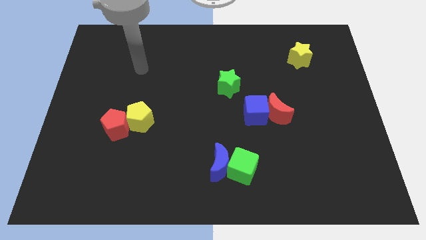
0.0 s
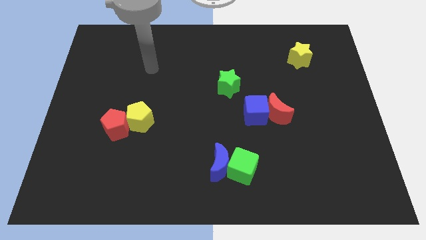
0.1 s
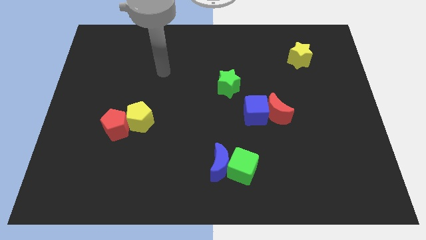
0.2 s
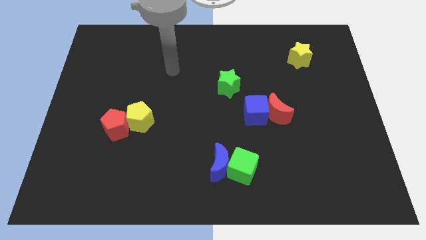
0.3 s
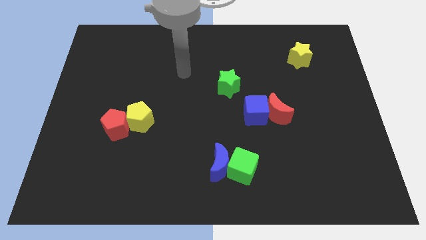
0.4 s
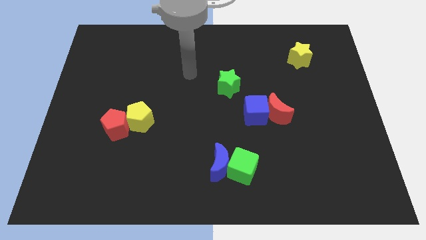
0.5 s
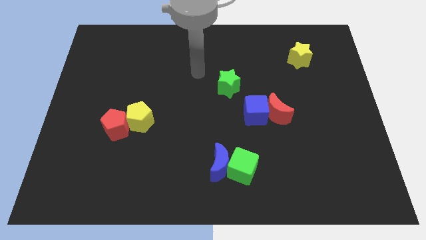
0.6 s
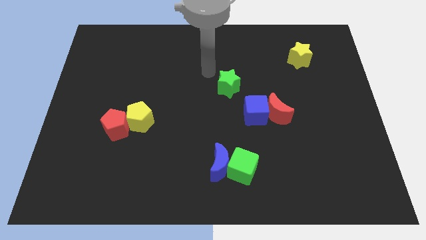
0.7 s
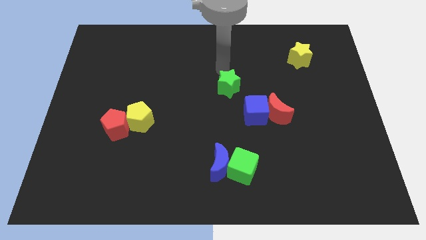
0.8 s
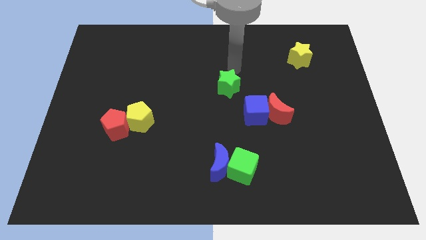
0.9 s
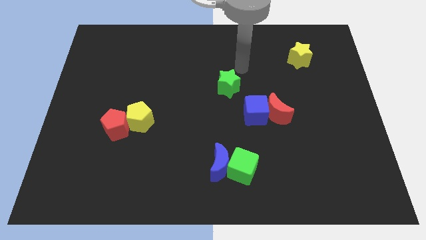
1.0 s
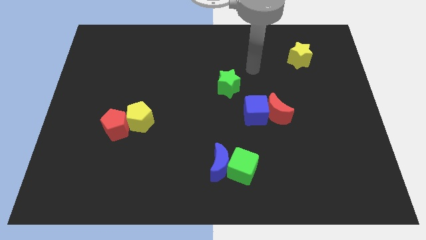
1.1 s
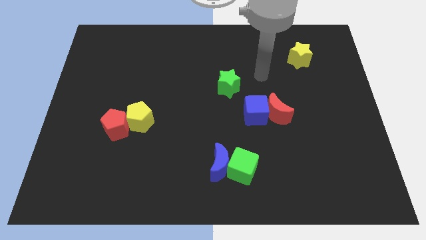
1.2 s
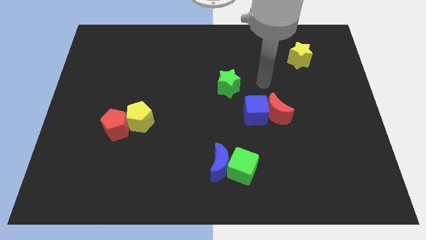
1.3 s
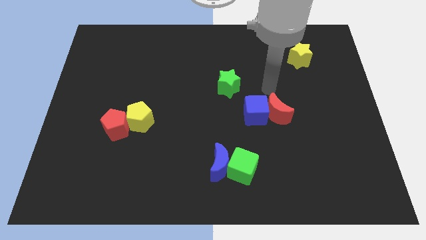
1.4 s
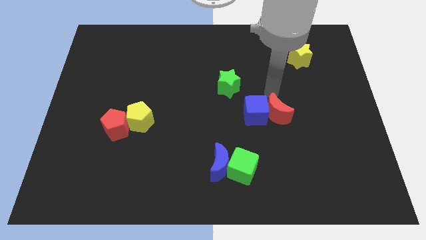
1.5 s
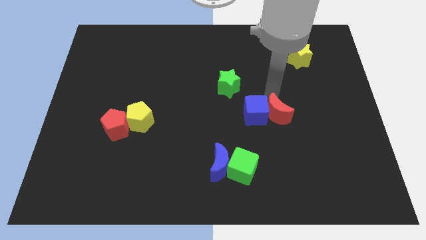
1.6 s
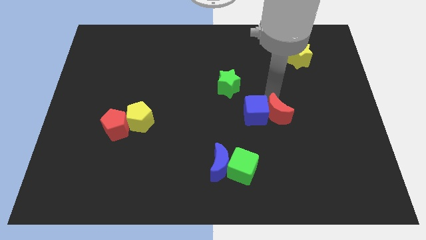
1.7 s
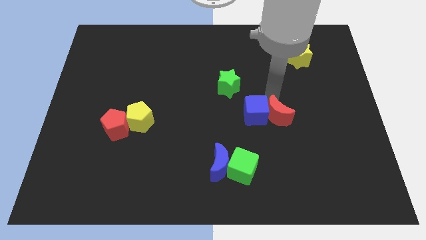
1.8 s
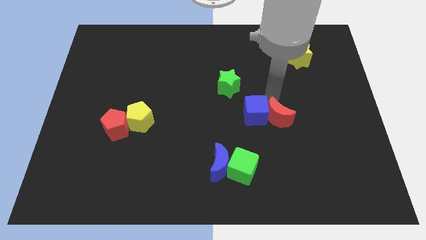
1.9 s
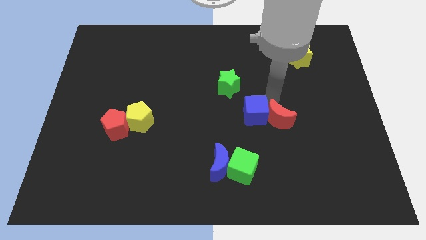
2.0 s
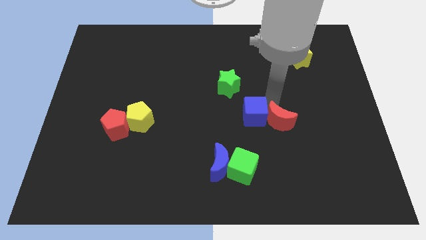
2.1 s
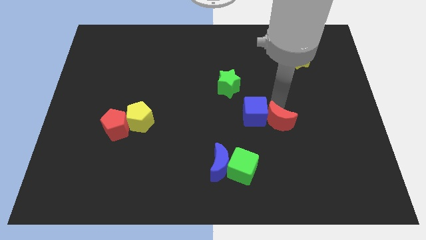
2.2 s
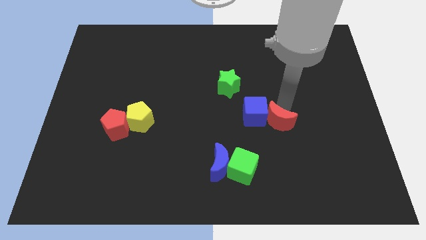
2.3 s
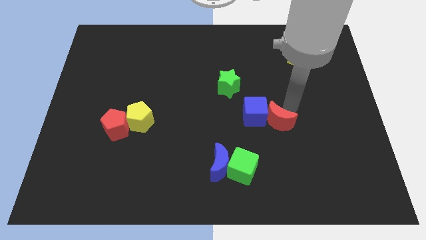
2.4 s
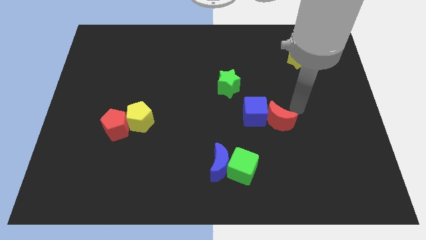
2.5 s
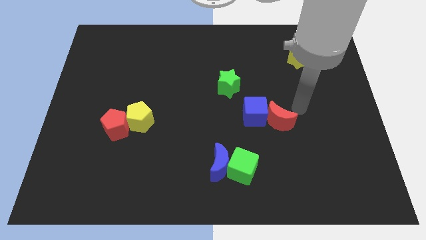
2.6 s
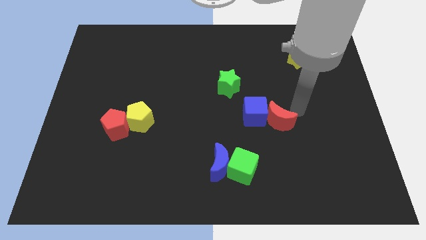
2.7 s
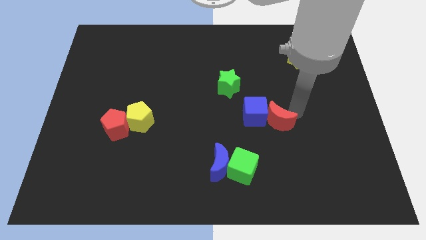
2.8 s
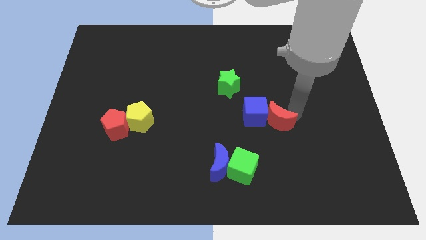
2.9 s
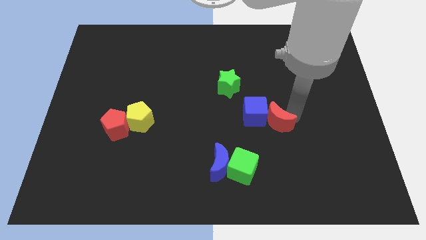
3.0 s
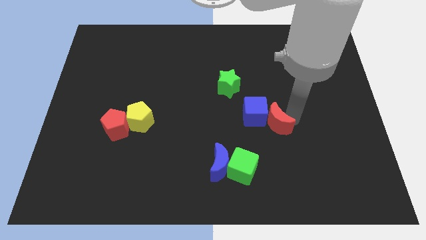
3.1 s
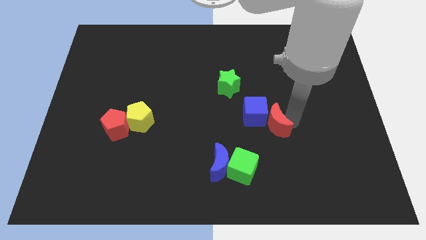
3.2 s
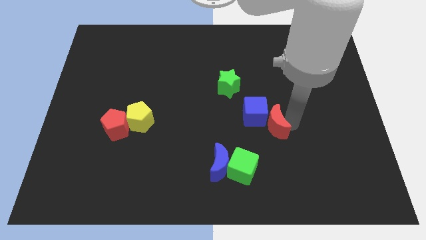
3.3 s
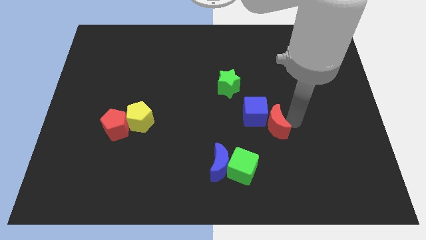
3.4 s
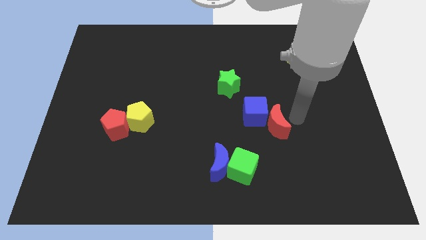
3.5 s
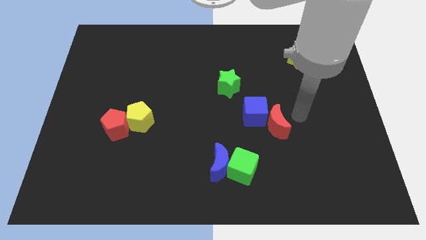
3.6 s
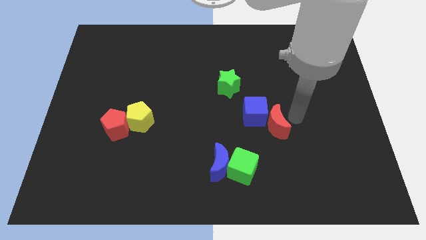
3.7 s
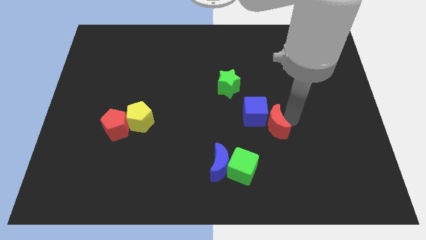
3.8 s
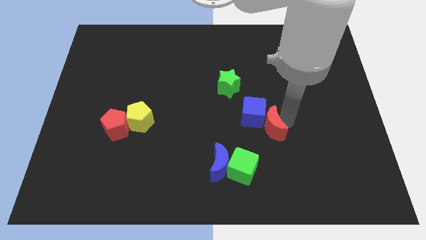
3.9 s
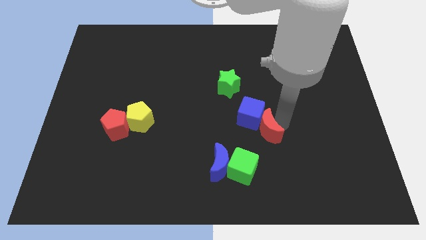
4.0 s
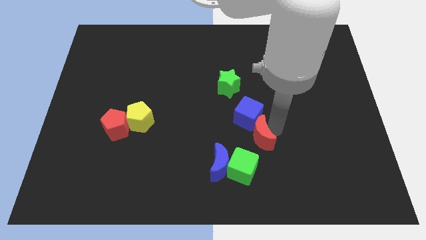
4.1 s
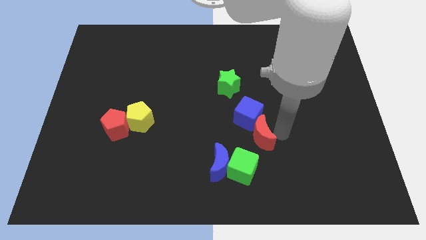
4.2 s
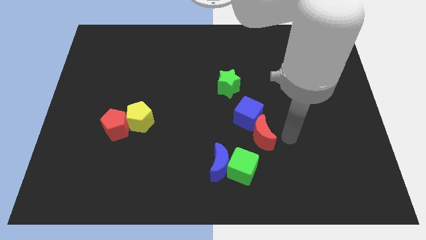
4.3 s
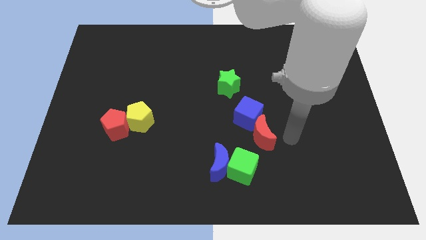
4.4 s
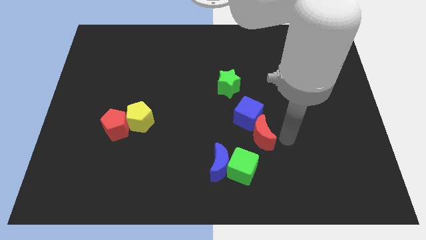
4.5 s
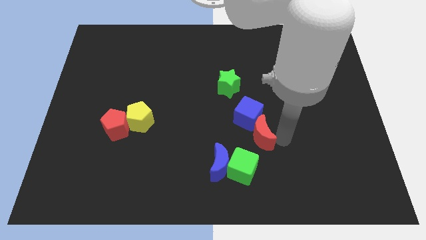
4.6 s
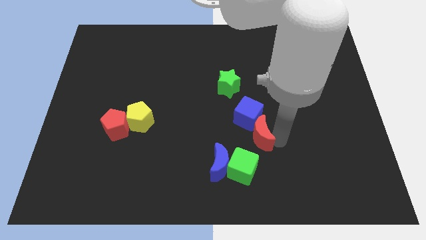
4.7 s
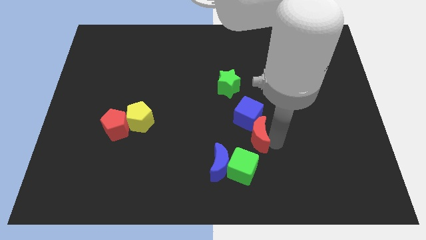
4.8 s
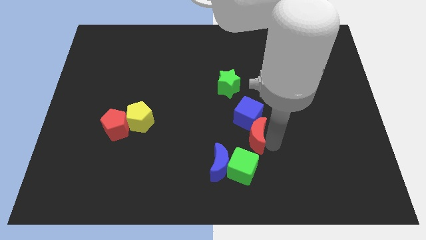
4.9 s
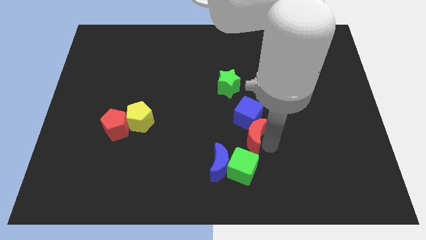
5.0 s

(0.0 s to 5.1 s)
push the red moon diagonally down and to the left of the blue cube

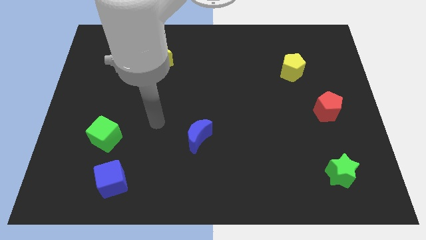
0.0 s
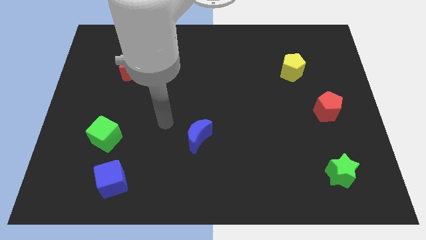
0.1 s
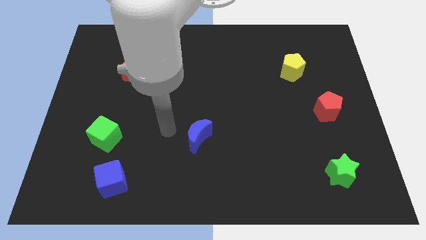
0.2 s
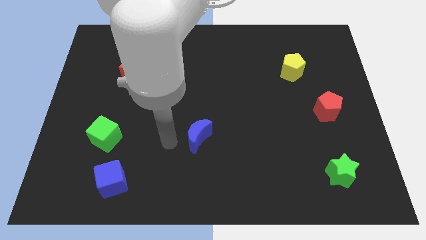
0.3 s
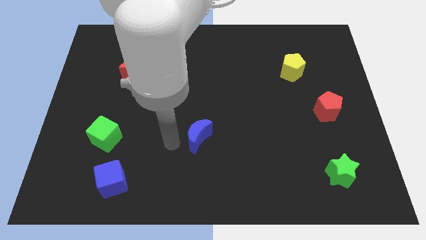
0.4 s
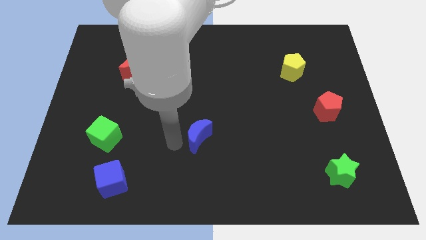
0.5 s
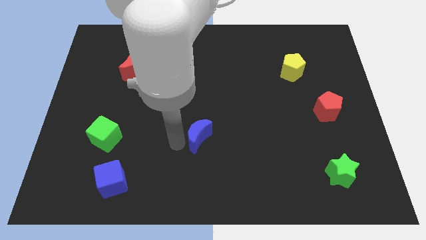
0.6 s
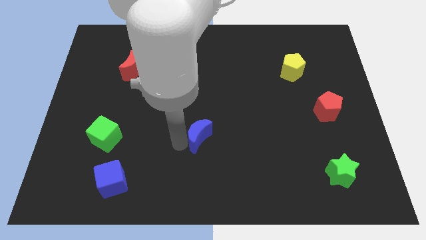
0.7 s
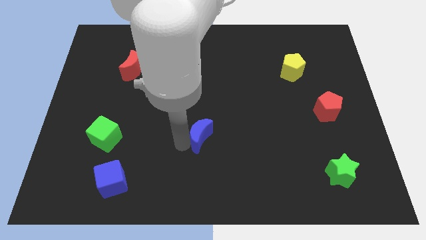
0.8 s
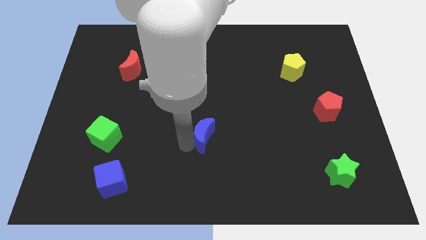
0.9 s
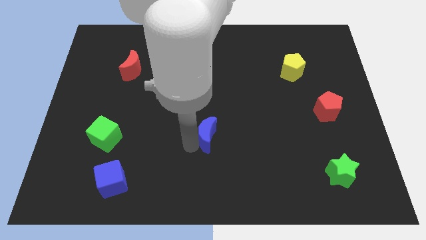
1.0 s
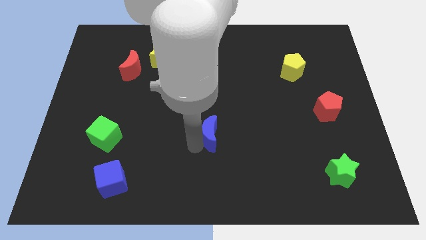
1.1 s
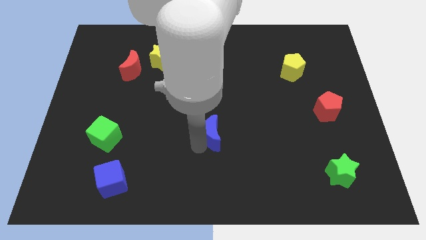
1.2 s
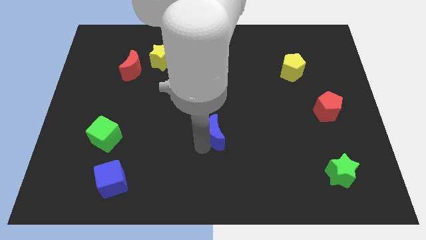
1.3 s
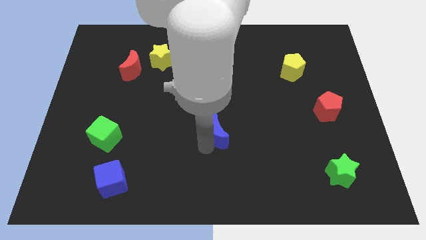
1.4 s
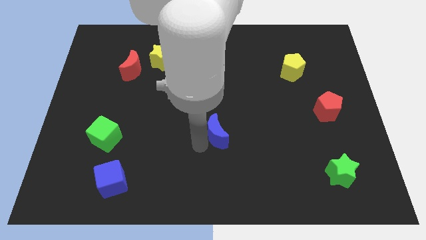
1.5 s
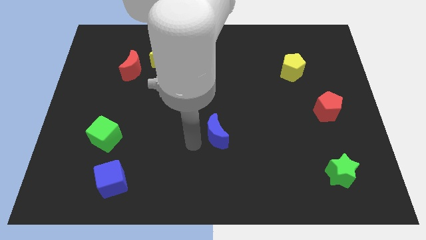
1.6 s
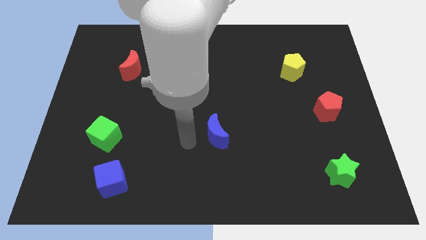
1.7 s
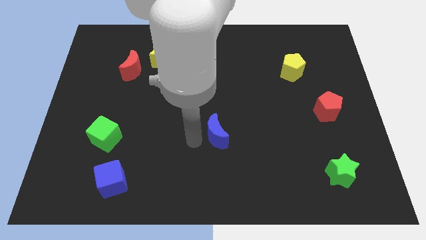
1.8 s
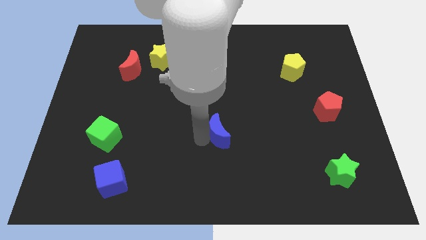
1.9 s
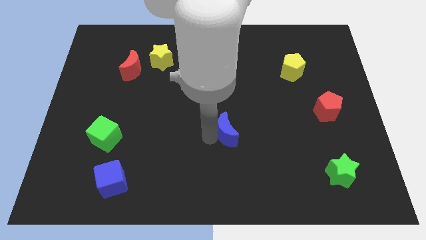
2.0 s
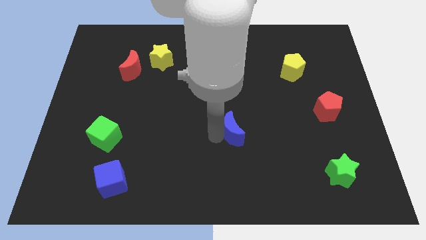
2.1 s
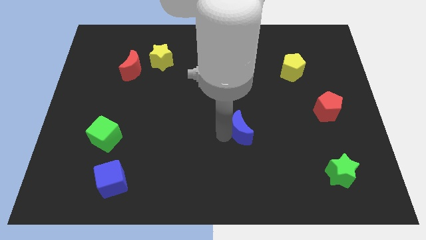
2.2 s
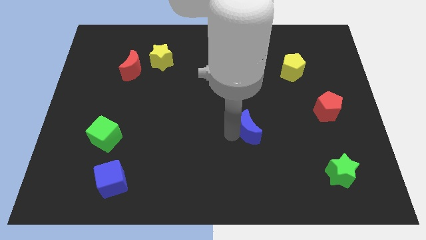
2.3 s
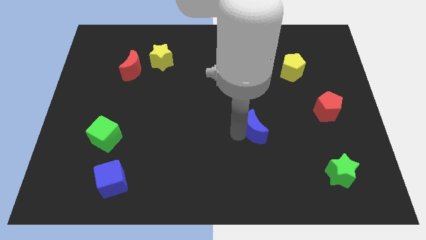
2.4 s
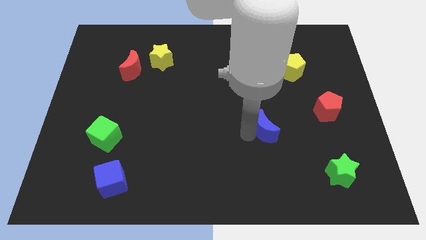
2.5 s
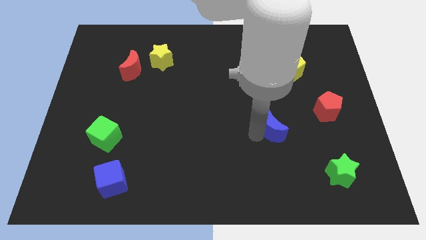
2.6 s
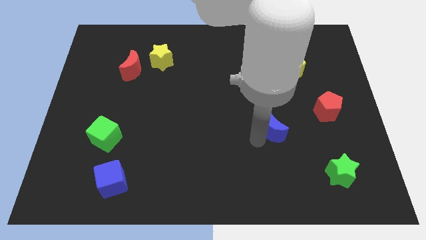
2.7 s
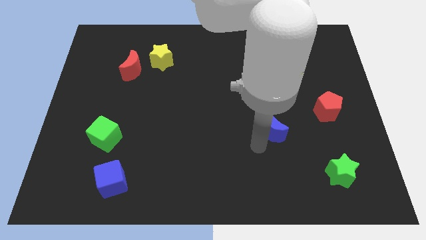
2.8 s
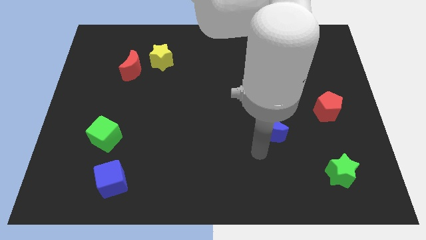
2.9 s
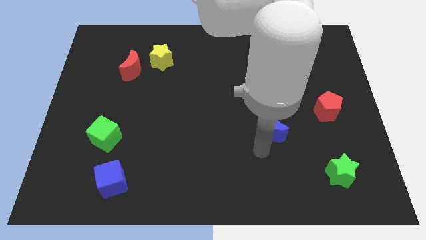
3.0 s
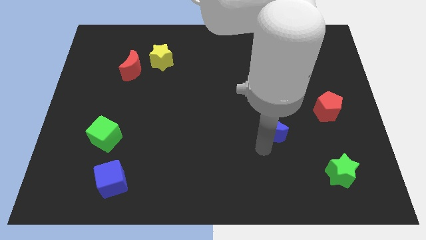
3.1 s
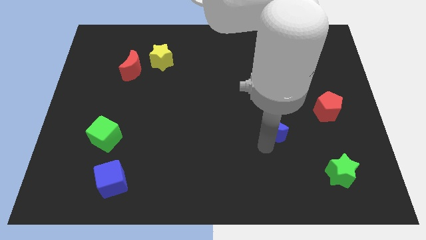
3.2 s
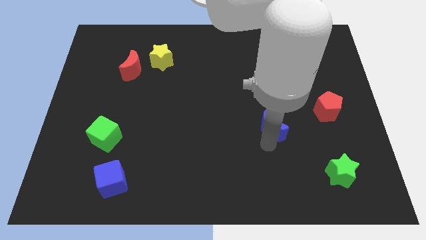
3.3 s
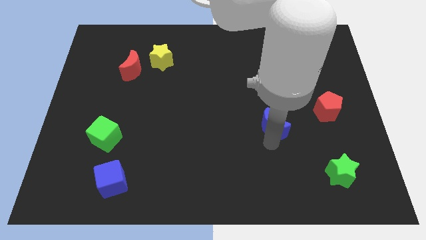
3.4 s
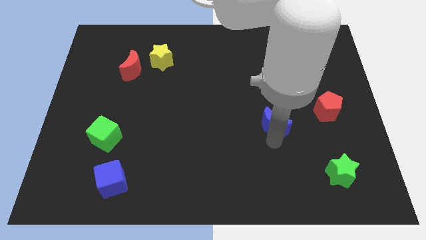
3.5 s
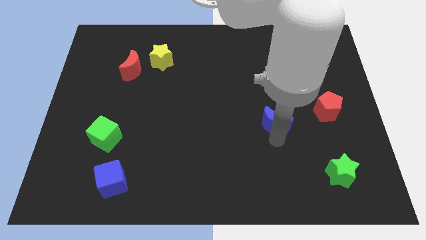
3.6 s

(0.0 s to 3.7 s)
move the blue moon to the left side of the red pentagon
